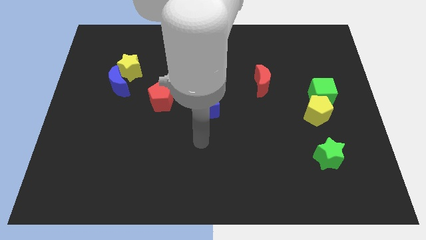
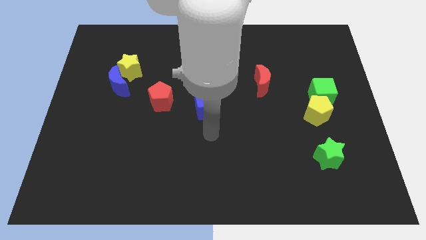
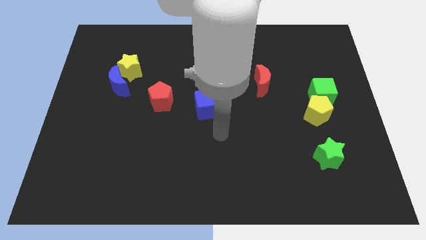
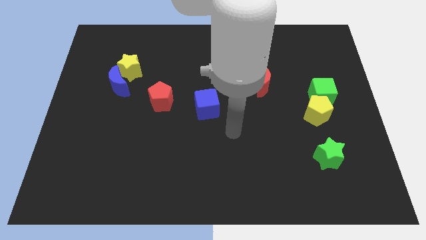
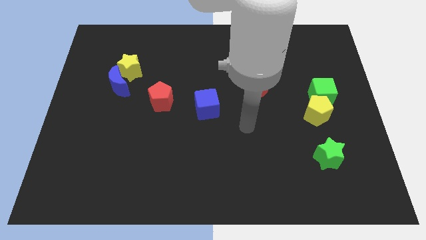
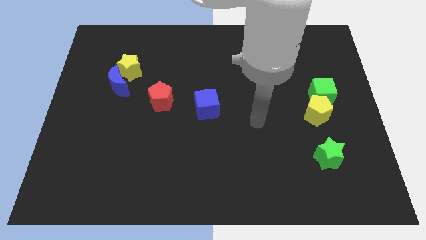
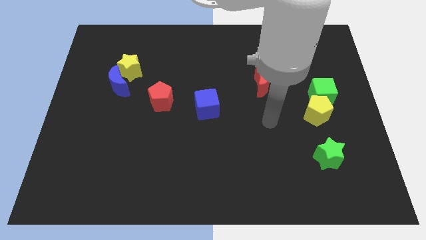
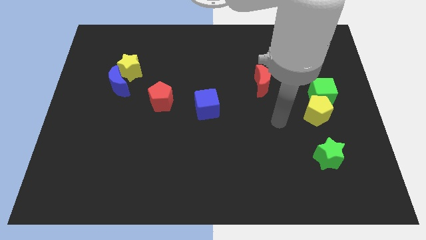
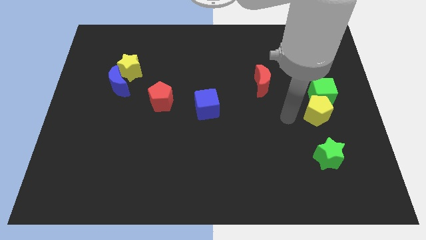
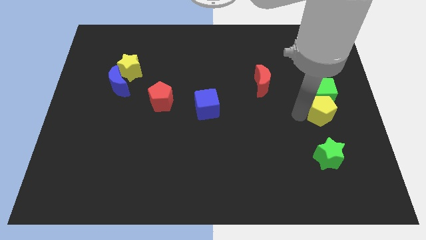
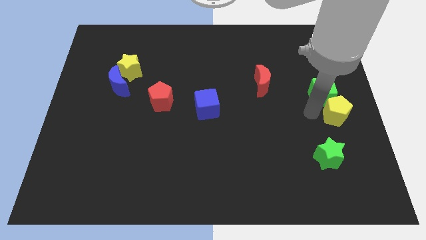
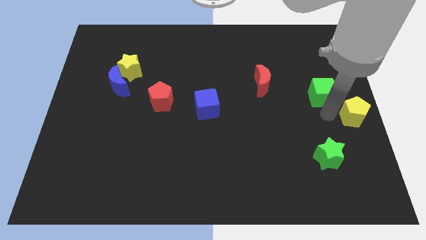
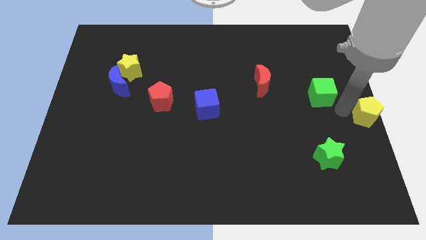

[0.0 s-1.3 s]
separate the green cube from the yellow pentagon

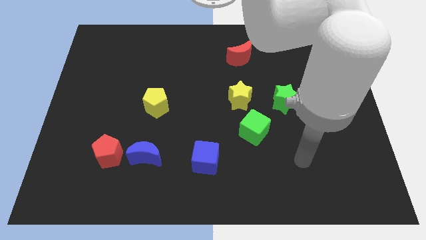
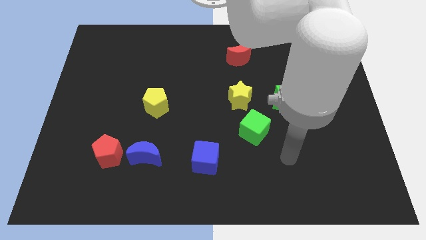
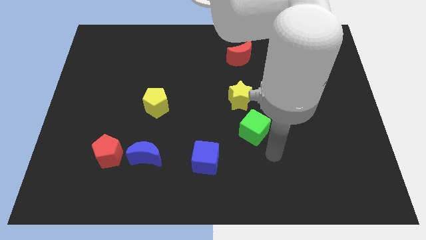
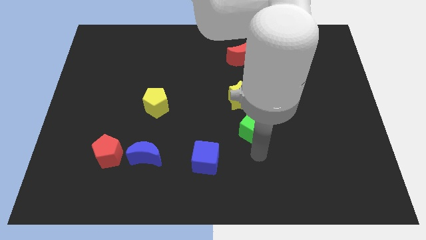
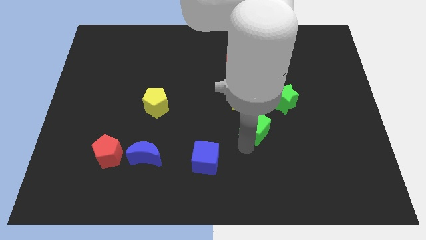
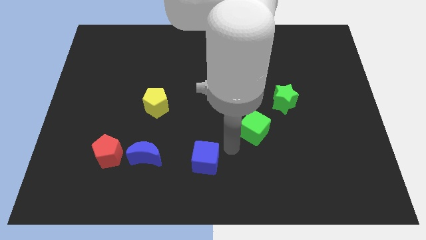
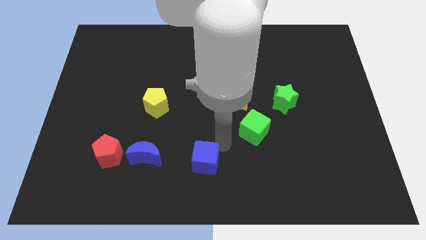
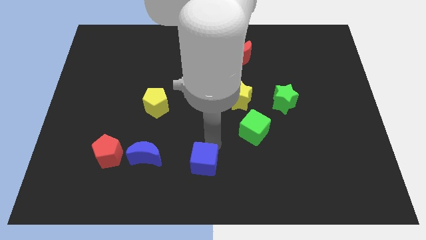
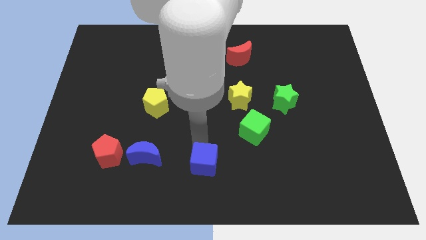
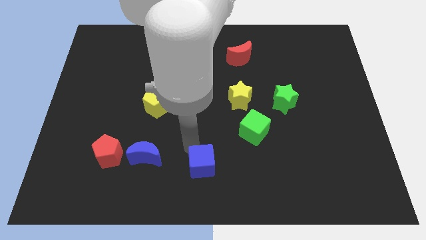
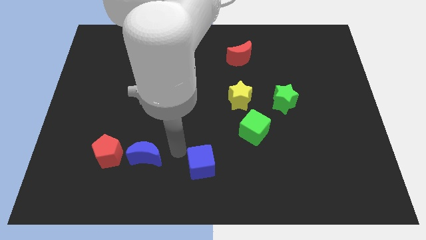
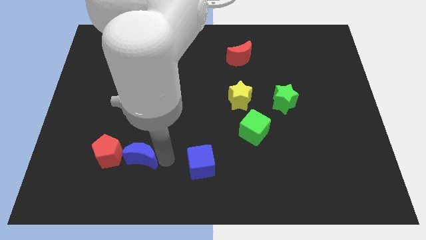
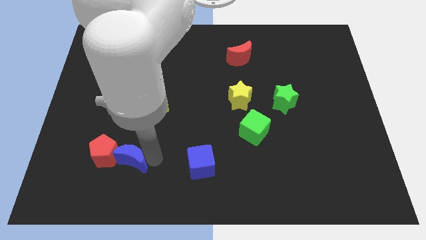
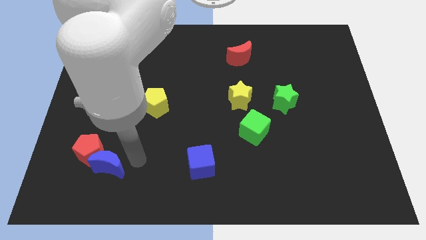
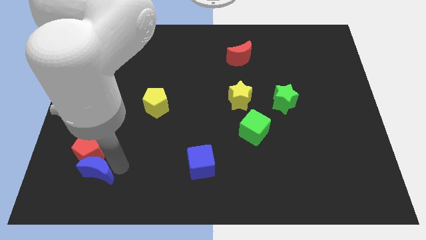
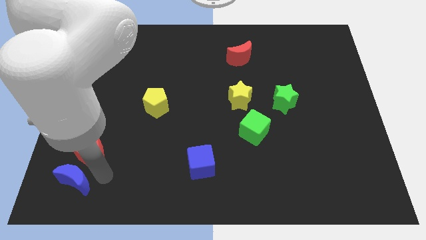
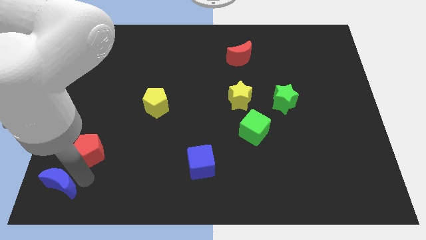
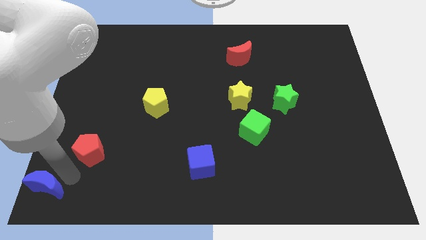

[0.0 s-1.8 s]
separate the red pentagon from the blue moon

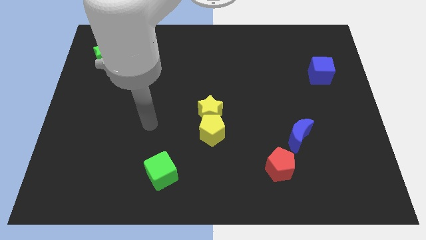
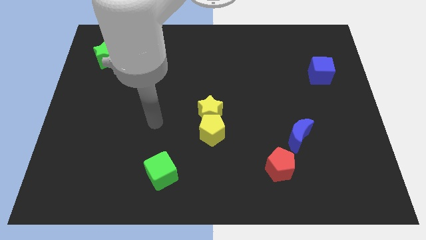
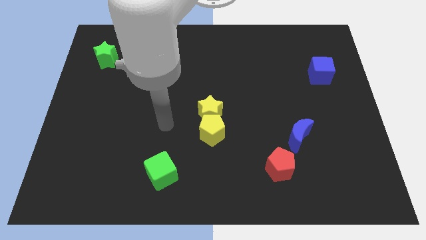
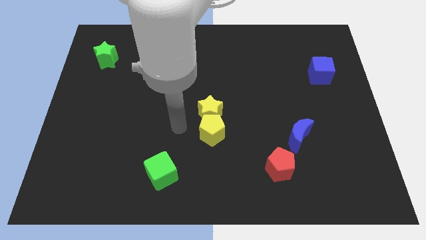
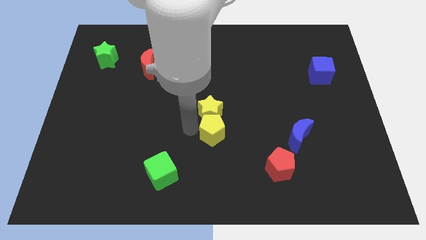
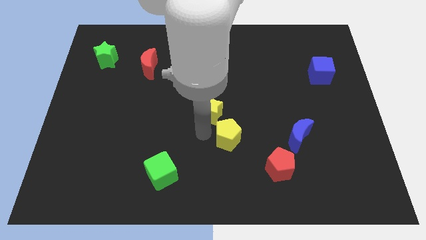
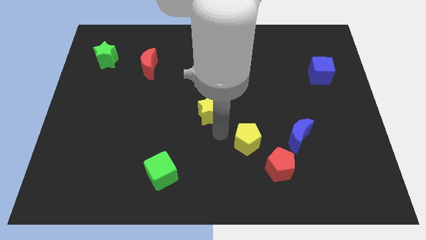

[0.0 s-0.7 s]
separate the yellow star from the yellow pentagon

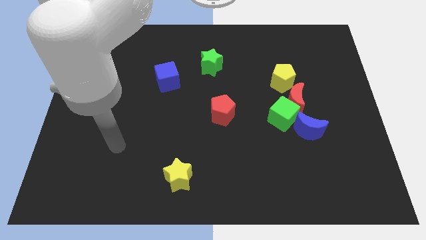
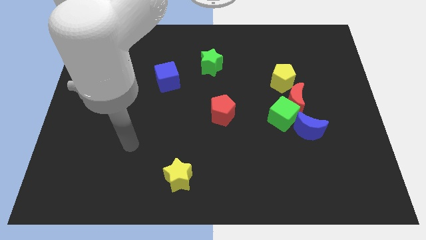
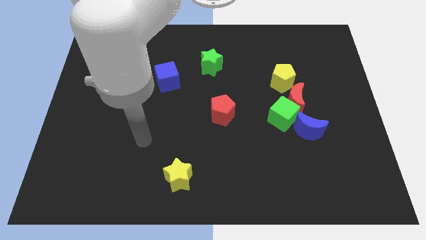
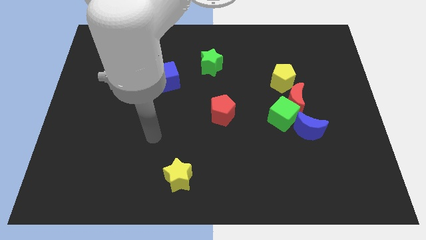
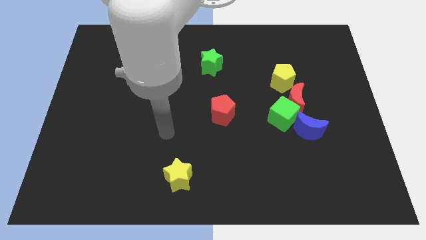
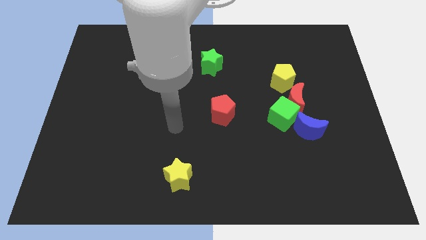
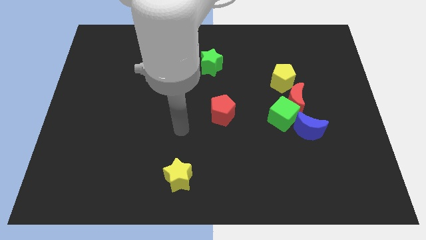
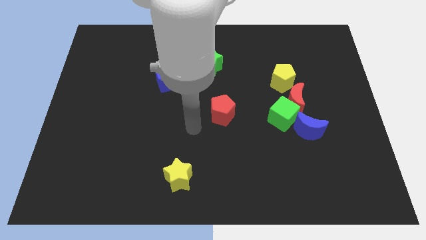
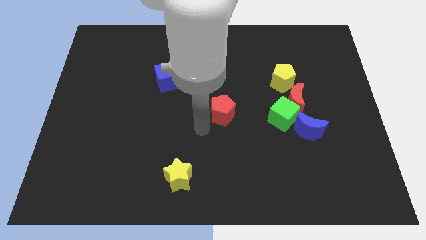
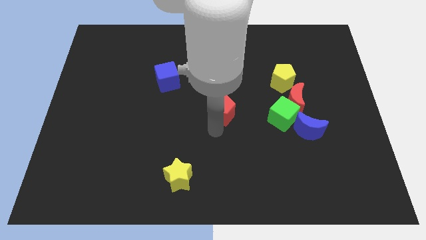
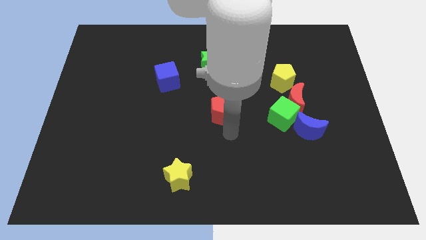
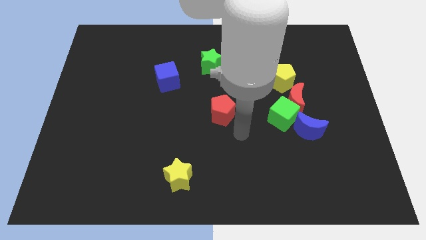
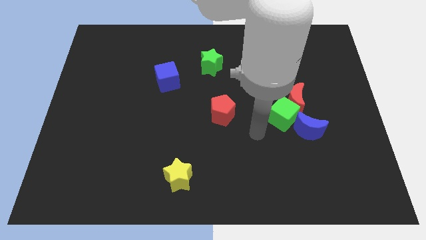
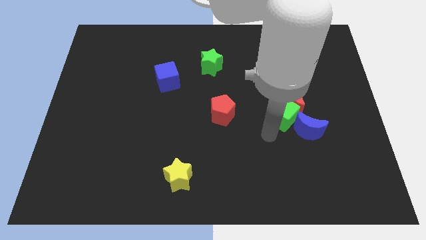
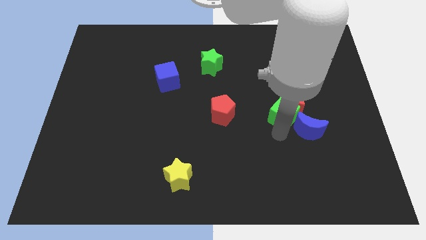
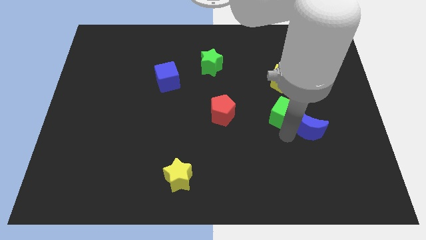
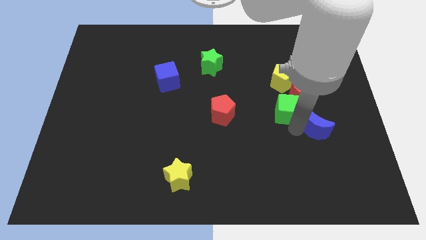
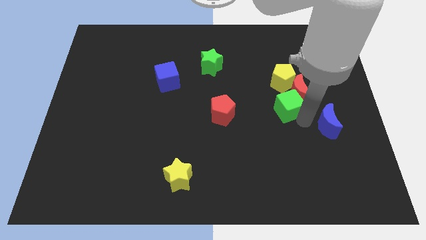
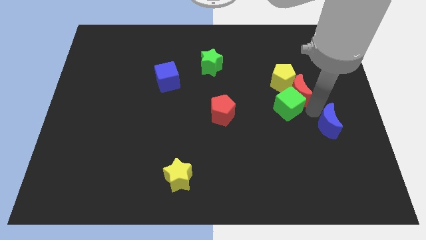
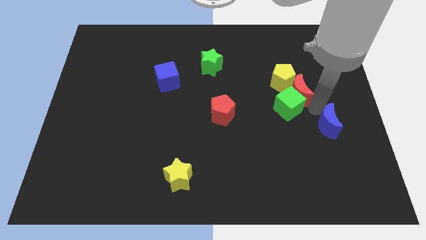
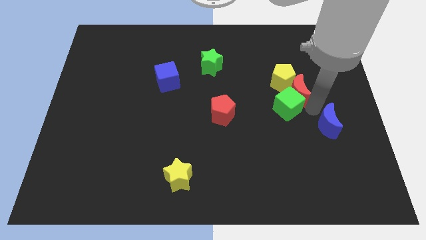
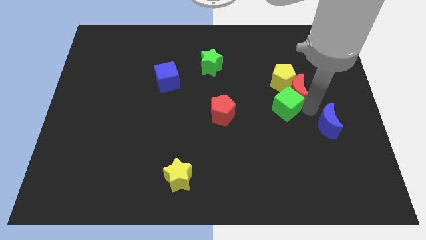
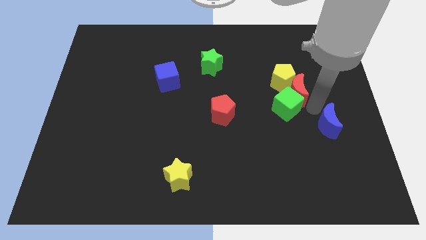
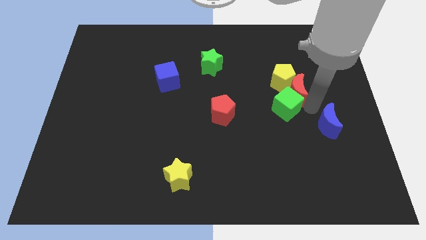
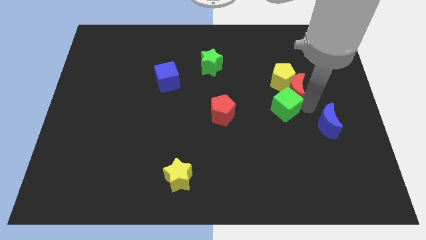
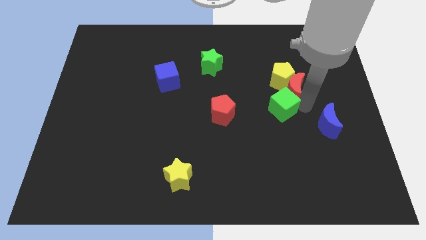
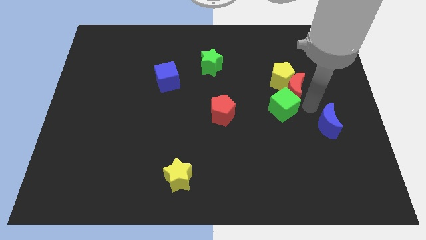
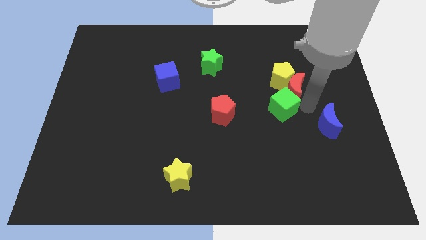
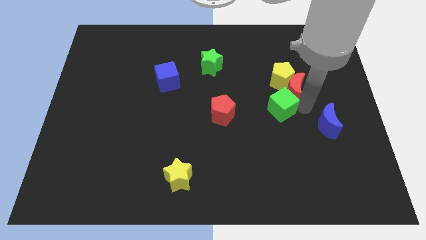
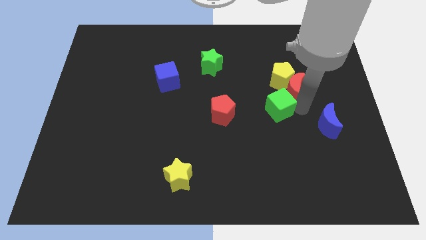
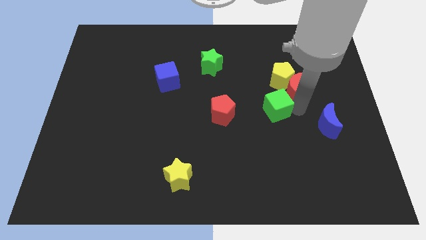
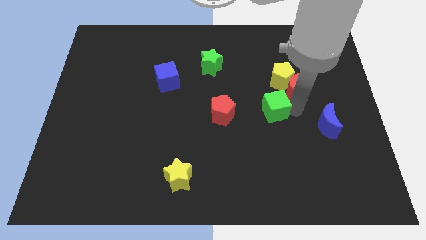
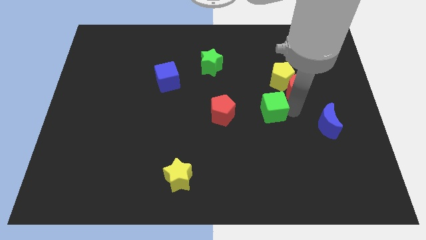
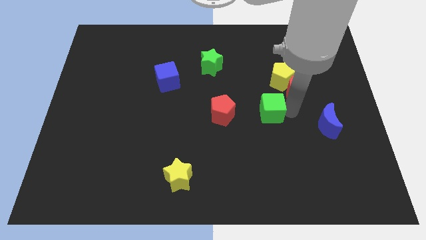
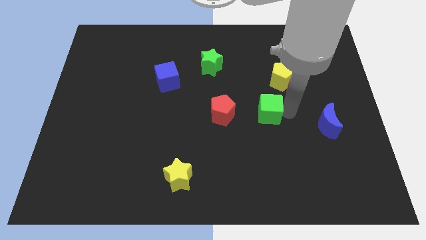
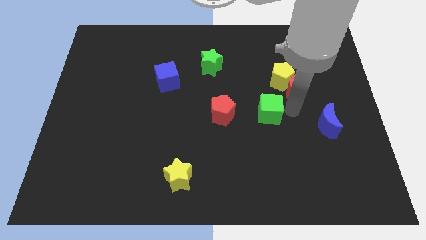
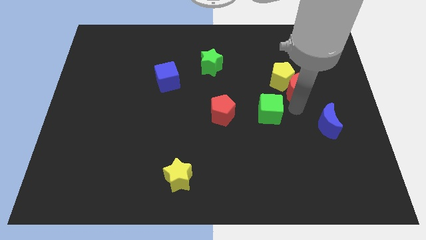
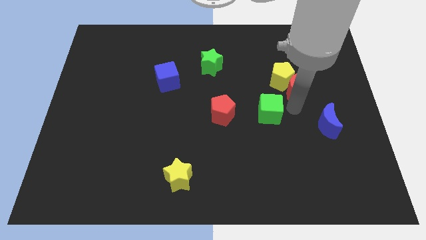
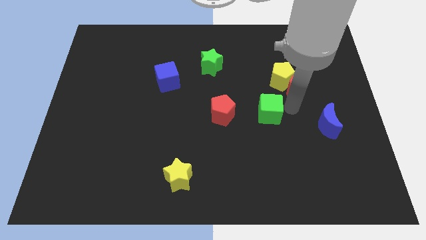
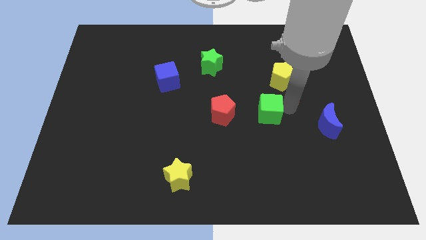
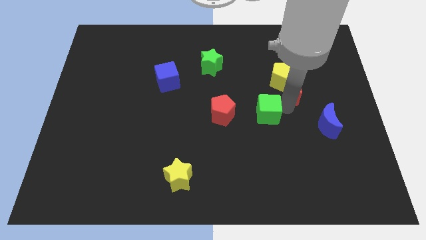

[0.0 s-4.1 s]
pull the green cube apart from the red moon and blue moon

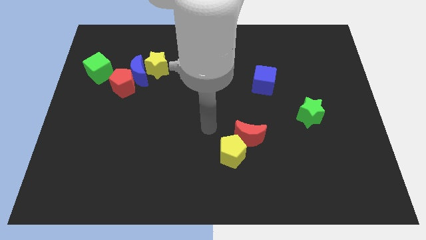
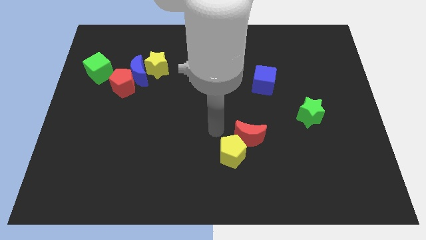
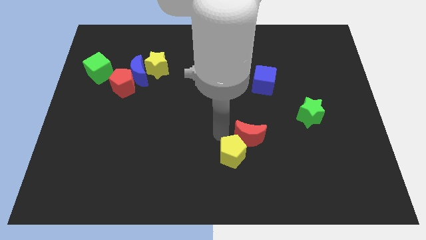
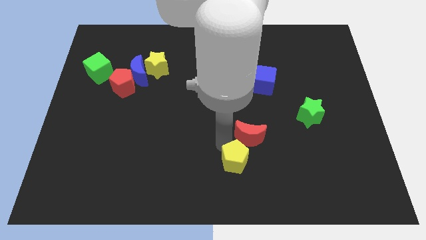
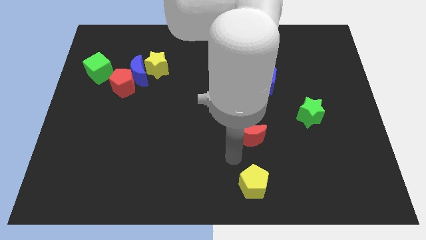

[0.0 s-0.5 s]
pull the red moon apart from the yellow pentagon

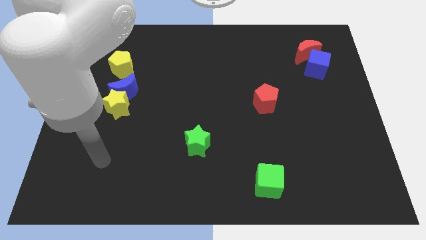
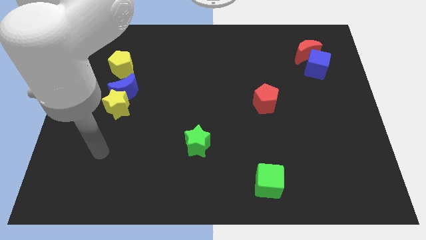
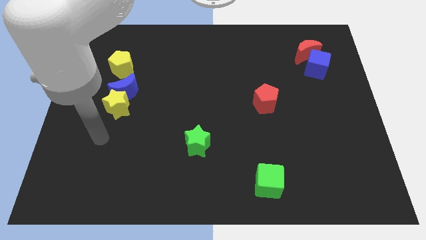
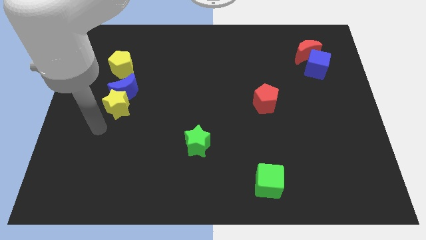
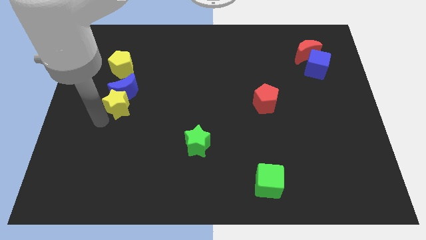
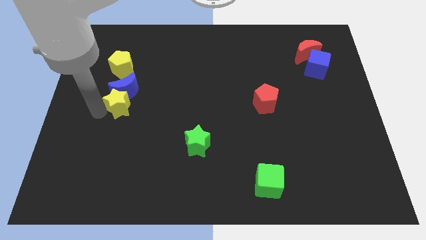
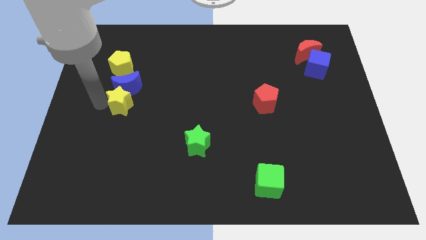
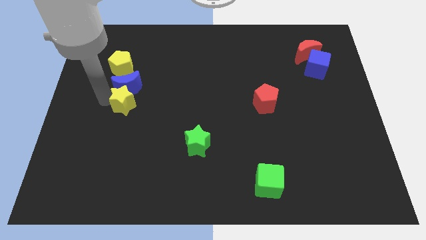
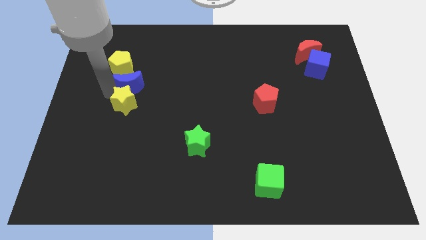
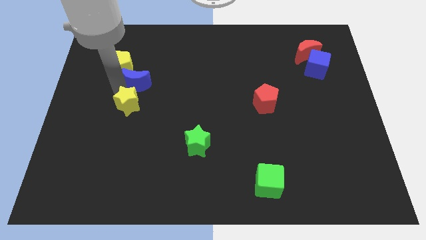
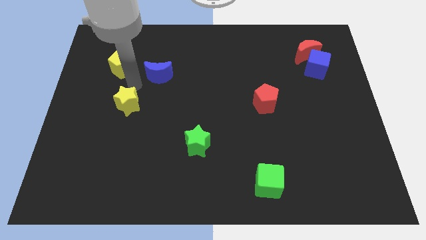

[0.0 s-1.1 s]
separate the yellow star from the blue moon
